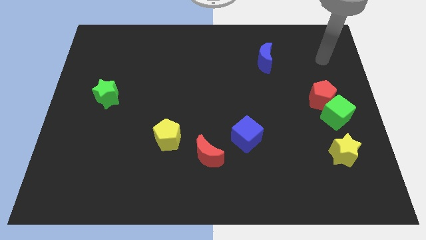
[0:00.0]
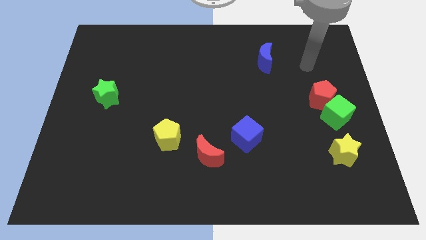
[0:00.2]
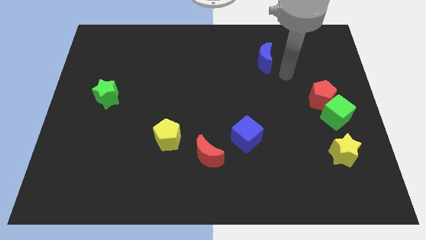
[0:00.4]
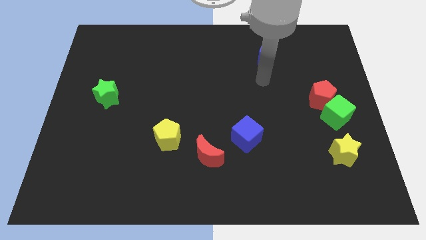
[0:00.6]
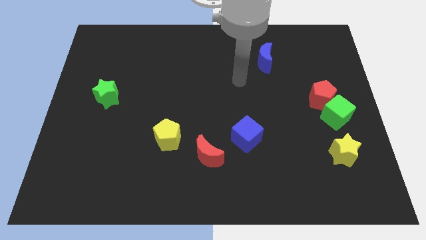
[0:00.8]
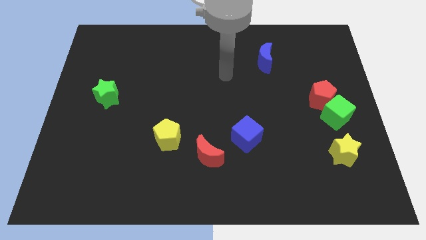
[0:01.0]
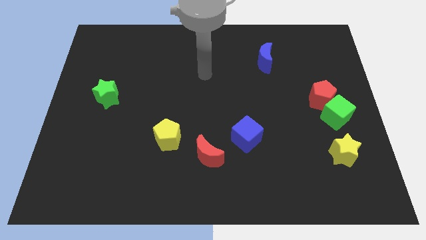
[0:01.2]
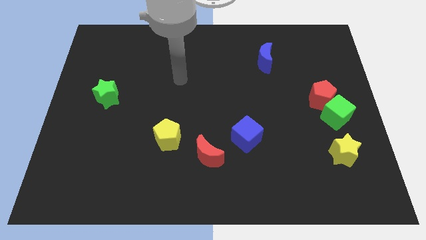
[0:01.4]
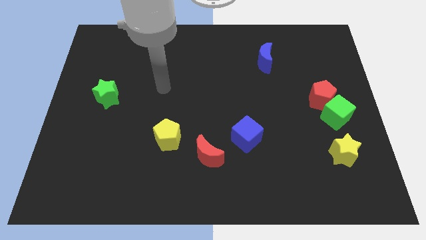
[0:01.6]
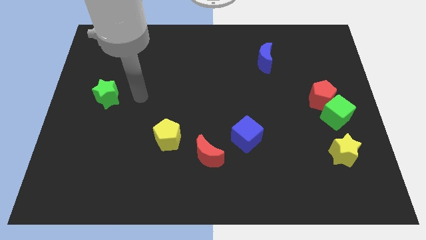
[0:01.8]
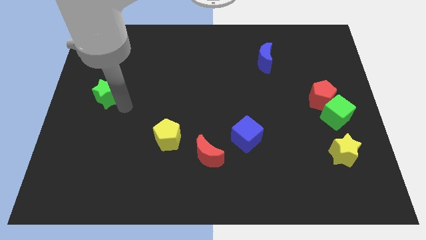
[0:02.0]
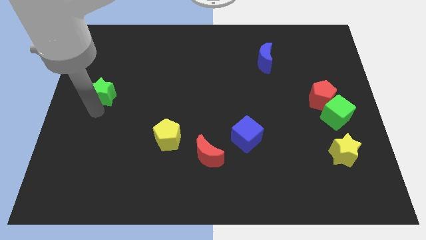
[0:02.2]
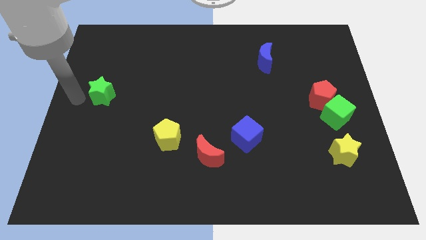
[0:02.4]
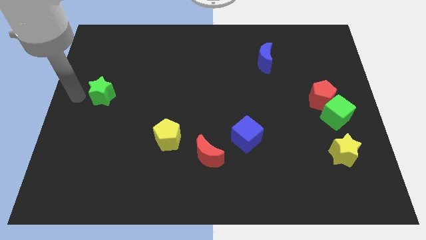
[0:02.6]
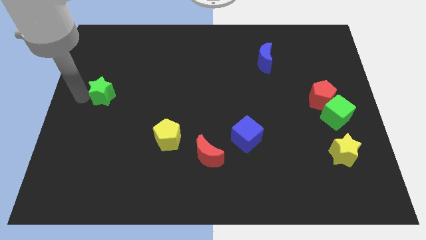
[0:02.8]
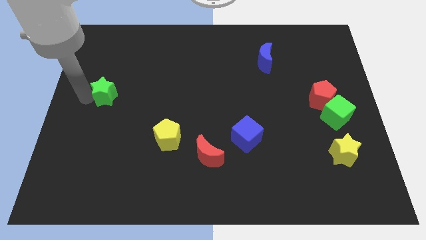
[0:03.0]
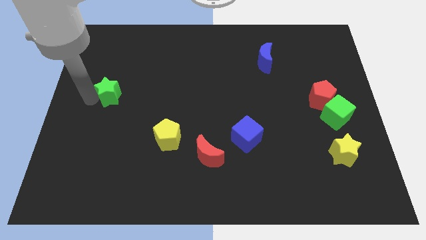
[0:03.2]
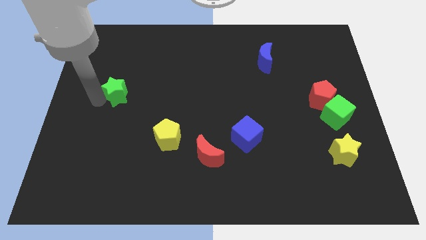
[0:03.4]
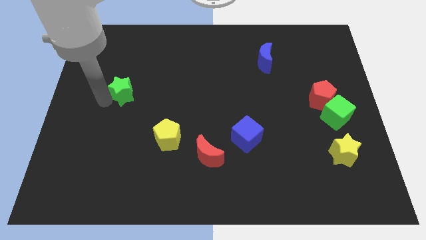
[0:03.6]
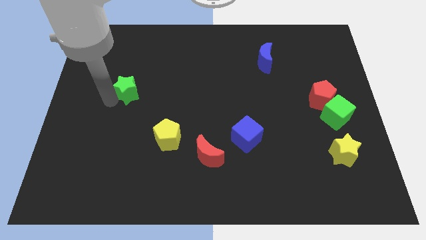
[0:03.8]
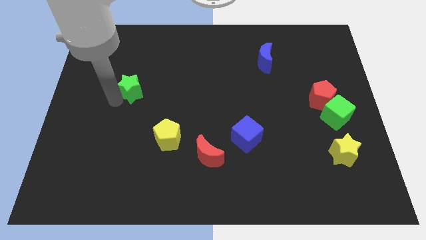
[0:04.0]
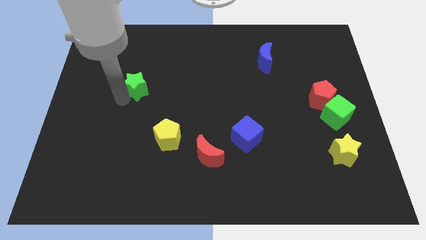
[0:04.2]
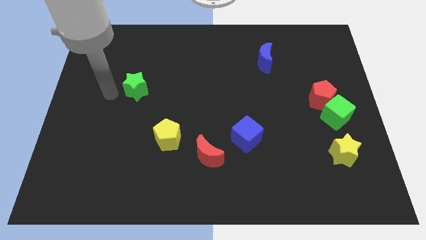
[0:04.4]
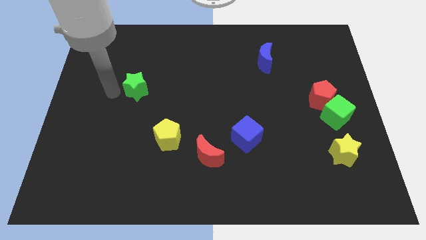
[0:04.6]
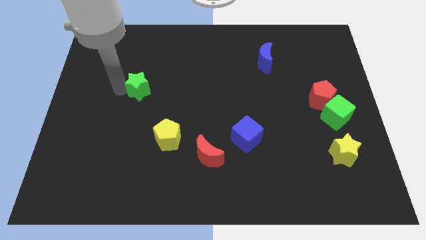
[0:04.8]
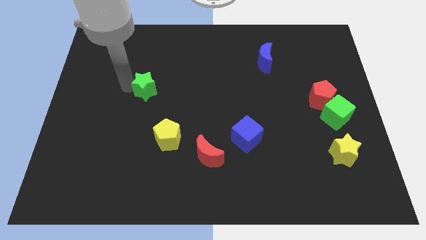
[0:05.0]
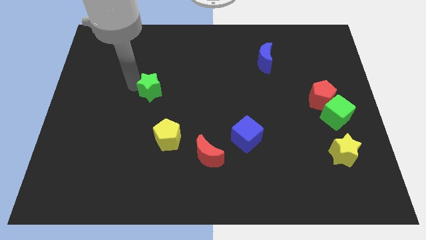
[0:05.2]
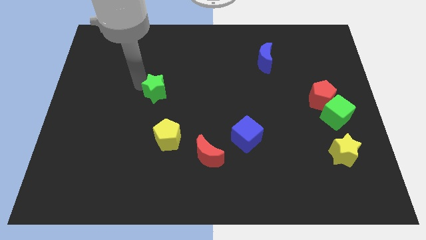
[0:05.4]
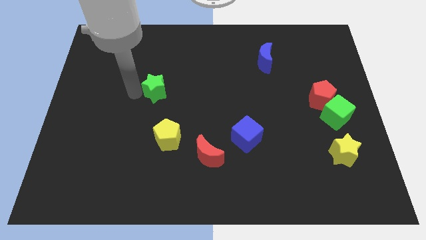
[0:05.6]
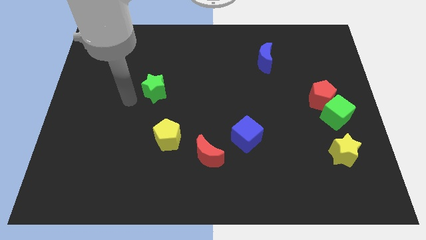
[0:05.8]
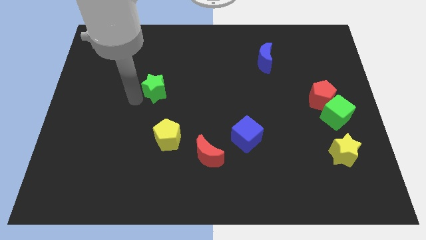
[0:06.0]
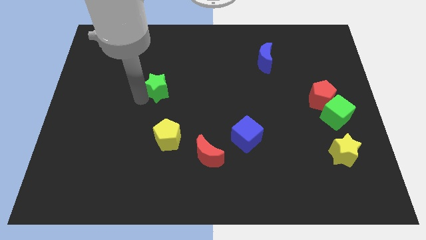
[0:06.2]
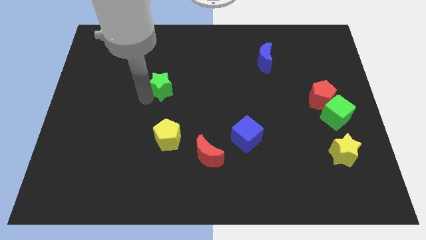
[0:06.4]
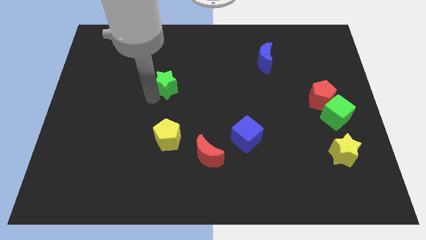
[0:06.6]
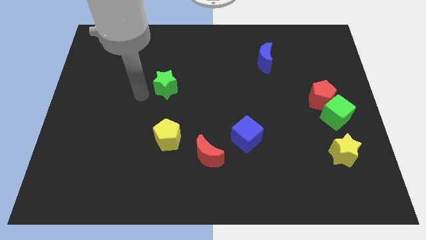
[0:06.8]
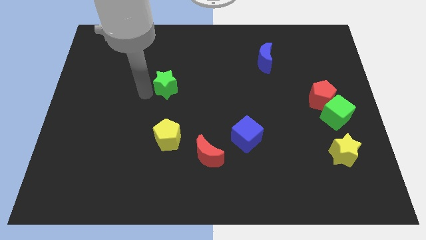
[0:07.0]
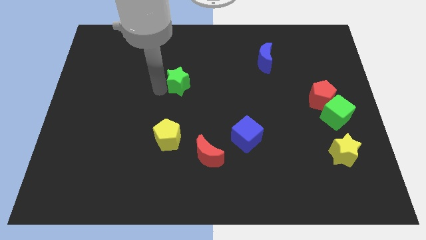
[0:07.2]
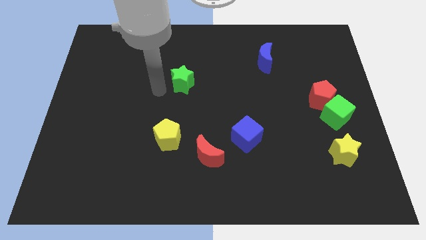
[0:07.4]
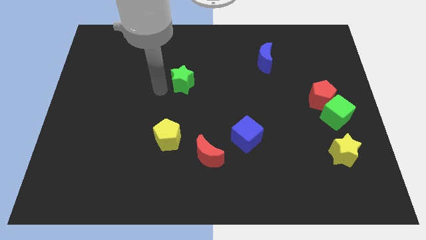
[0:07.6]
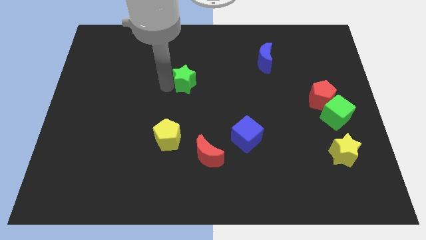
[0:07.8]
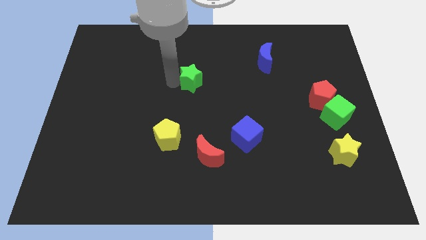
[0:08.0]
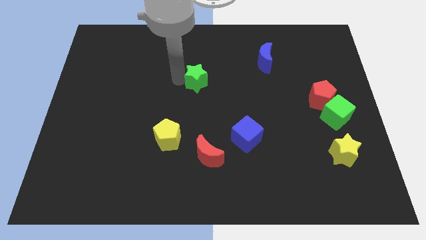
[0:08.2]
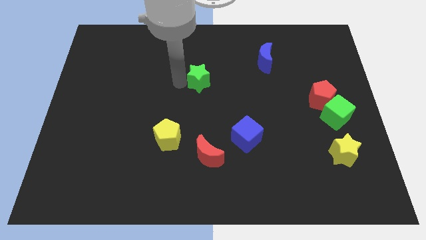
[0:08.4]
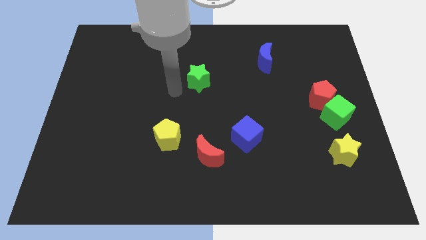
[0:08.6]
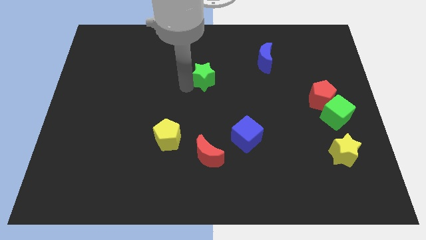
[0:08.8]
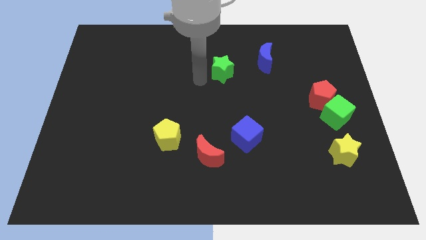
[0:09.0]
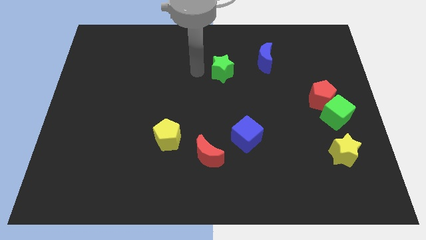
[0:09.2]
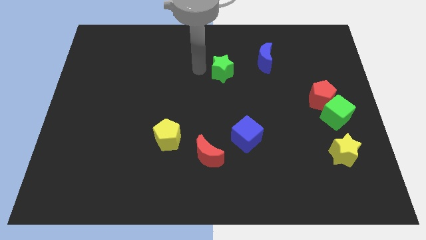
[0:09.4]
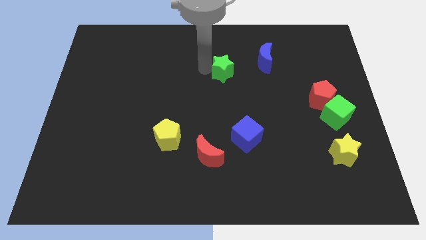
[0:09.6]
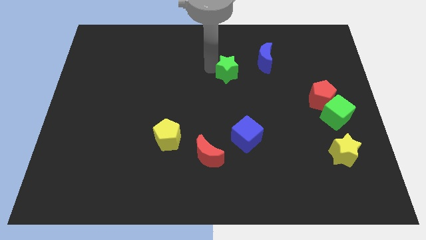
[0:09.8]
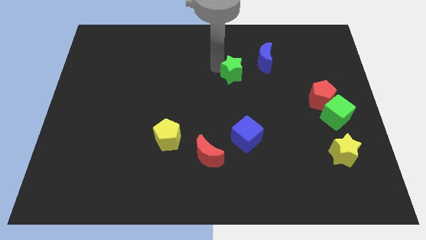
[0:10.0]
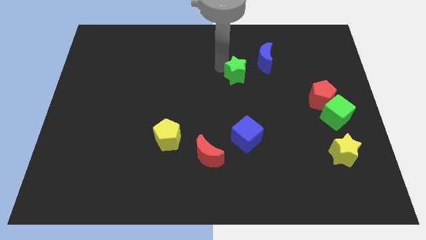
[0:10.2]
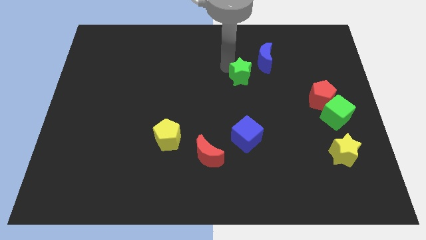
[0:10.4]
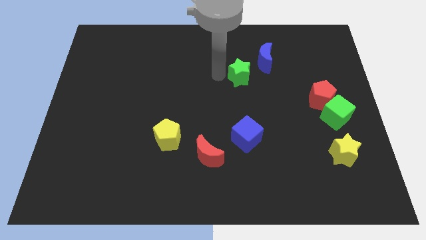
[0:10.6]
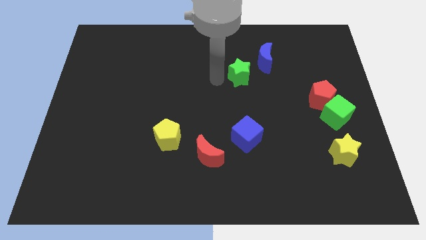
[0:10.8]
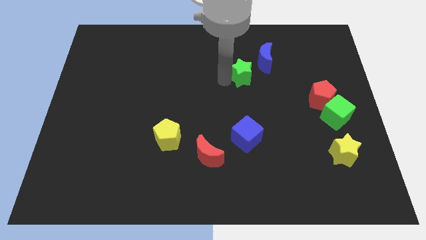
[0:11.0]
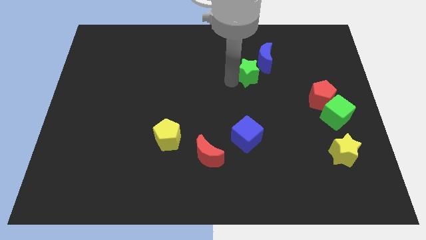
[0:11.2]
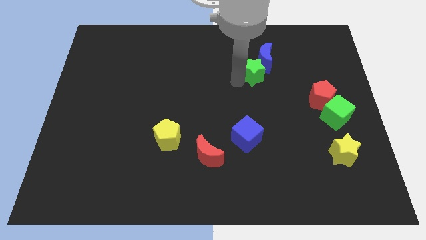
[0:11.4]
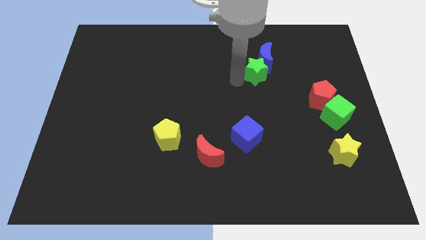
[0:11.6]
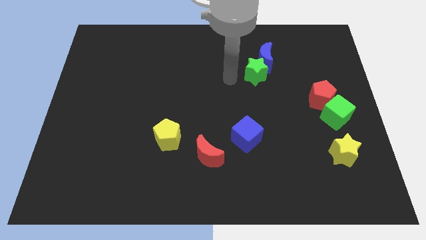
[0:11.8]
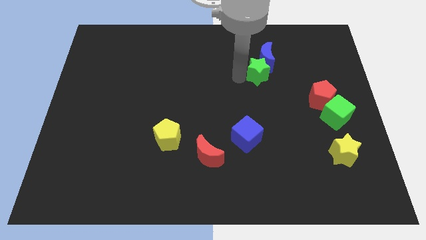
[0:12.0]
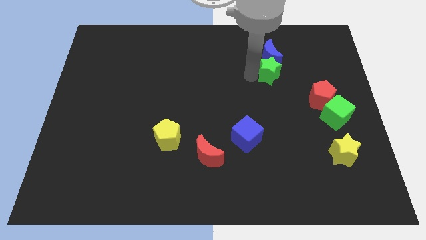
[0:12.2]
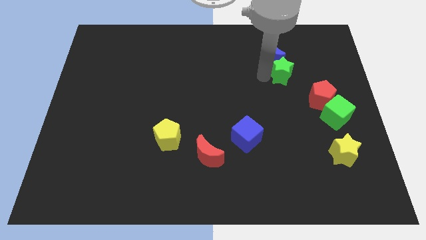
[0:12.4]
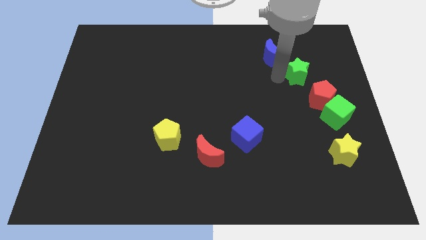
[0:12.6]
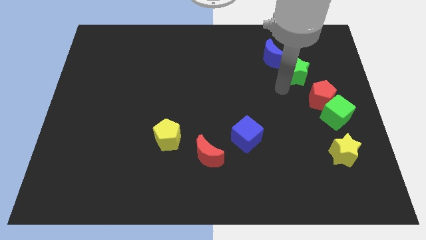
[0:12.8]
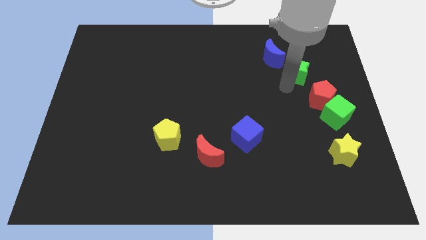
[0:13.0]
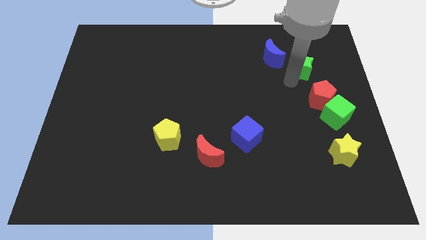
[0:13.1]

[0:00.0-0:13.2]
move the green star to the right of the blue moon

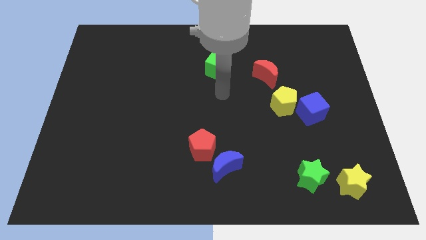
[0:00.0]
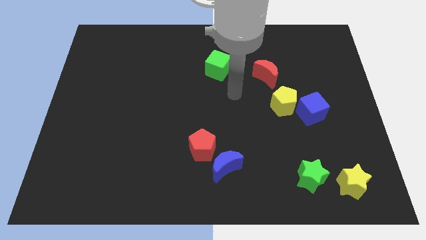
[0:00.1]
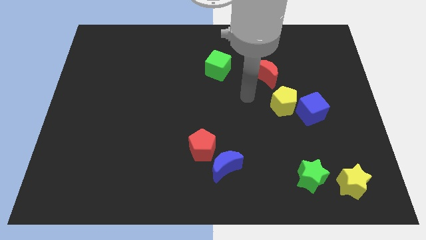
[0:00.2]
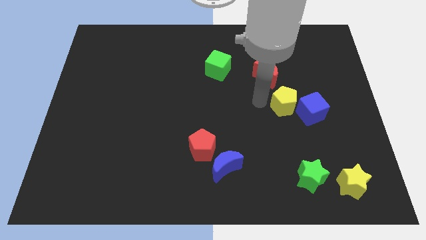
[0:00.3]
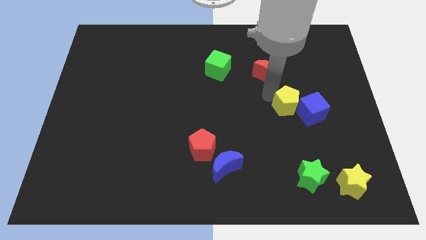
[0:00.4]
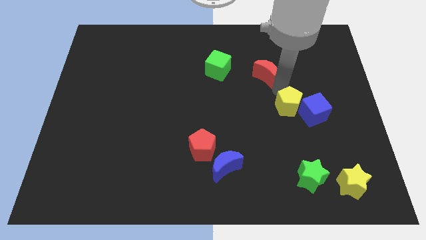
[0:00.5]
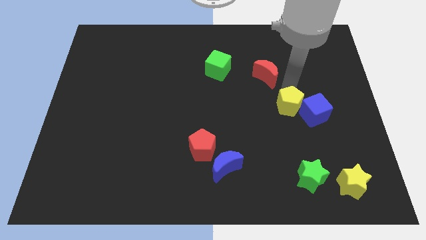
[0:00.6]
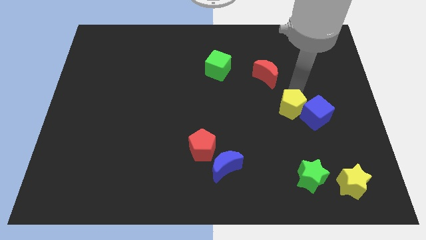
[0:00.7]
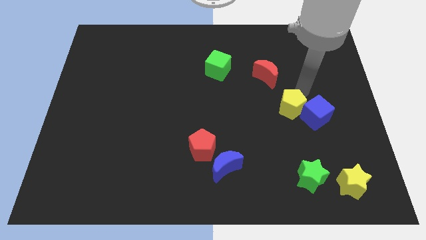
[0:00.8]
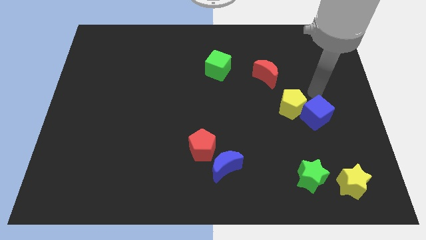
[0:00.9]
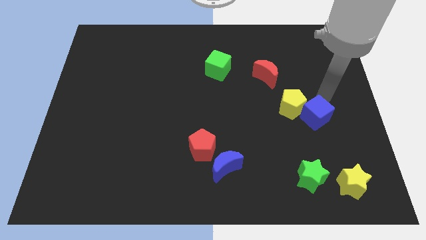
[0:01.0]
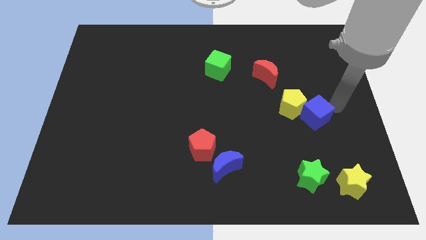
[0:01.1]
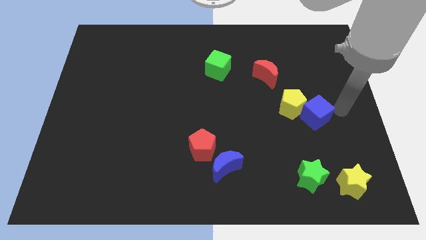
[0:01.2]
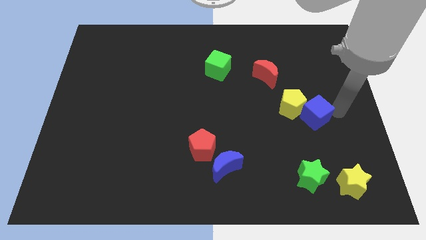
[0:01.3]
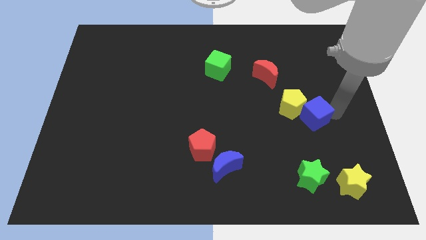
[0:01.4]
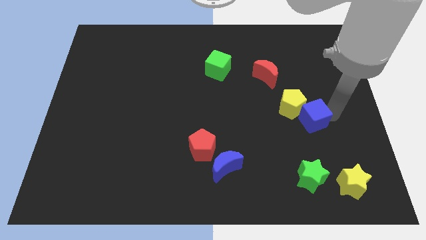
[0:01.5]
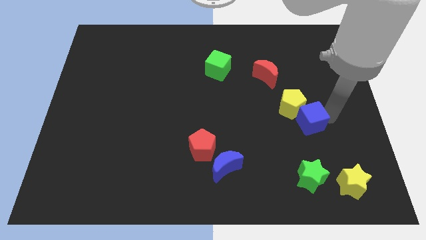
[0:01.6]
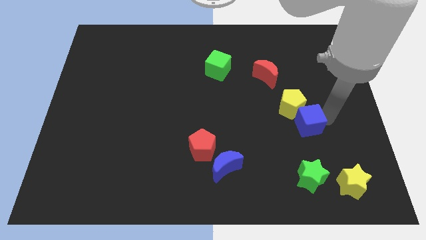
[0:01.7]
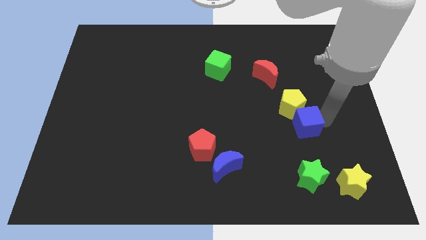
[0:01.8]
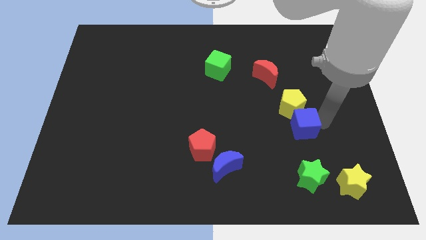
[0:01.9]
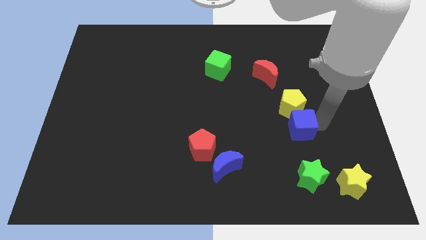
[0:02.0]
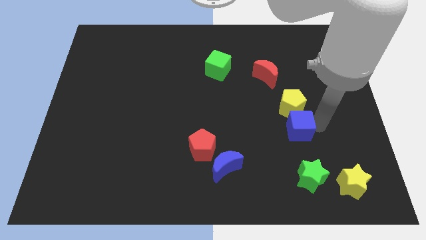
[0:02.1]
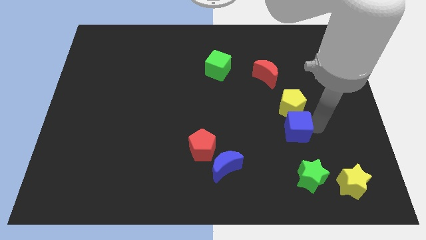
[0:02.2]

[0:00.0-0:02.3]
put the blue cube diagonally down and to the left of the yellow pentagon
